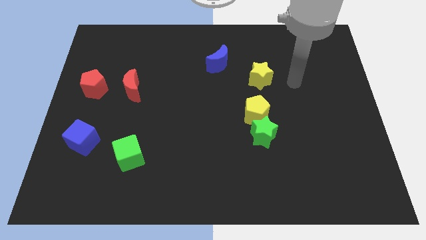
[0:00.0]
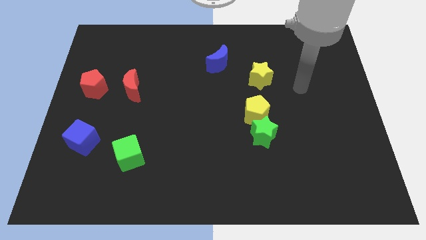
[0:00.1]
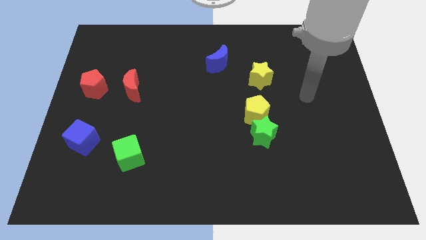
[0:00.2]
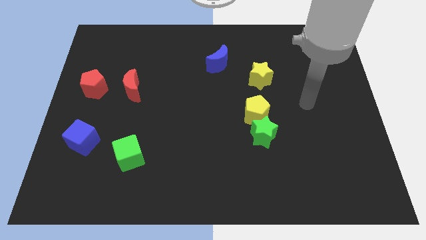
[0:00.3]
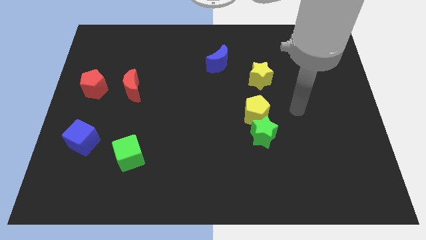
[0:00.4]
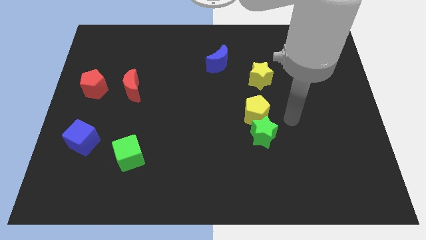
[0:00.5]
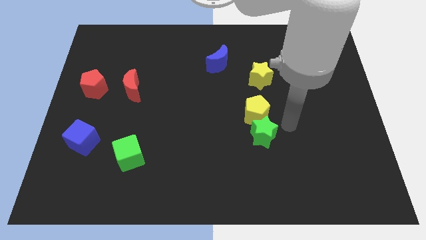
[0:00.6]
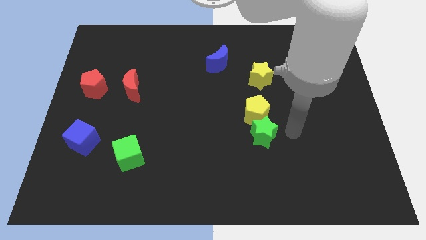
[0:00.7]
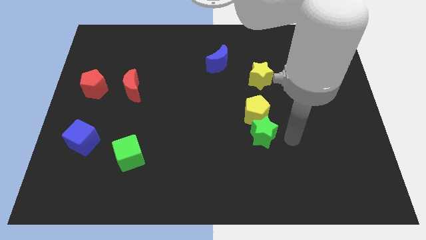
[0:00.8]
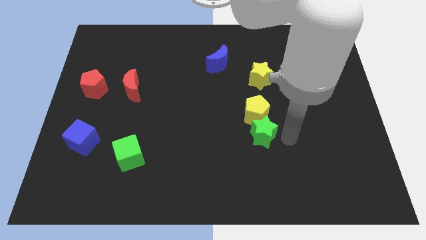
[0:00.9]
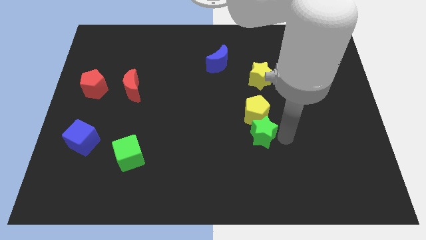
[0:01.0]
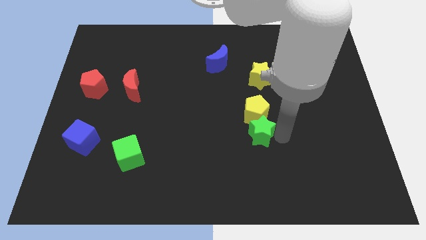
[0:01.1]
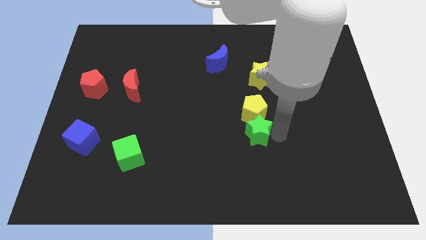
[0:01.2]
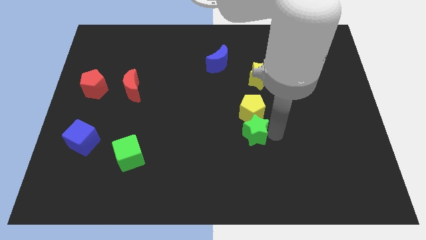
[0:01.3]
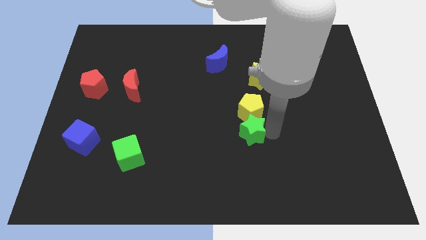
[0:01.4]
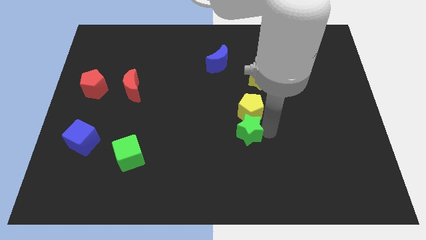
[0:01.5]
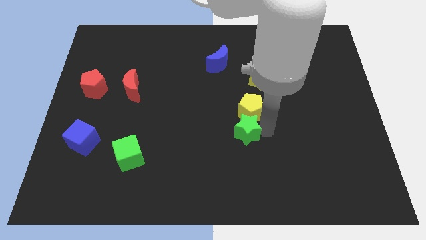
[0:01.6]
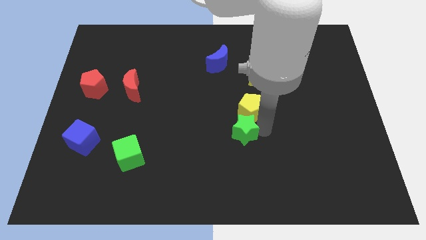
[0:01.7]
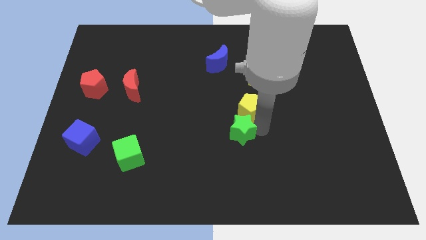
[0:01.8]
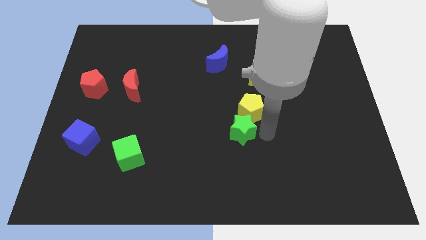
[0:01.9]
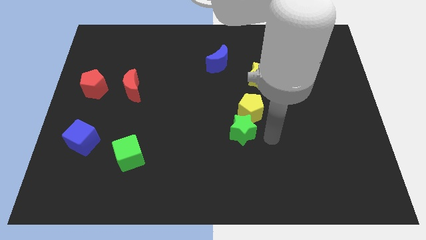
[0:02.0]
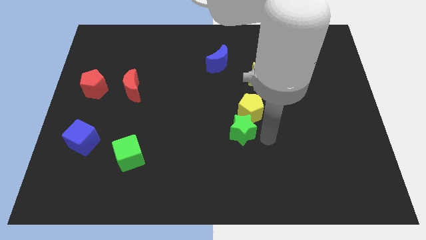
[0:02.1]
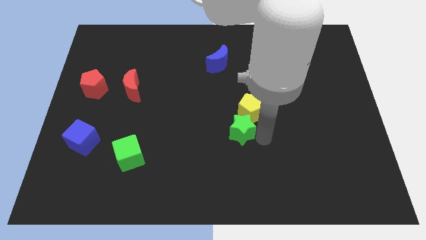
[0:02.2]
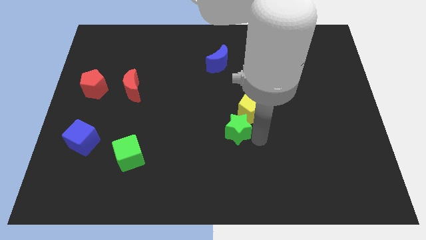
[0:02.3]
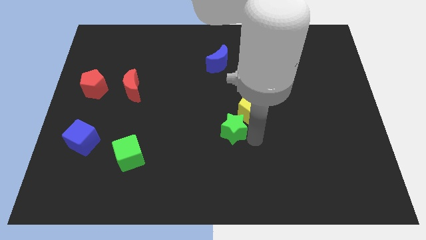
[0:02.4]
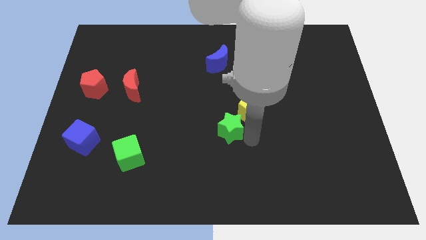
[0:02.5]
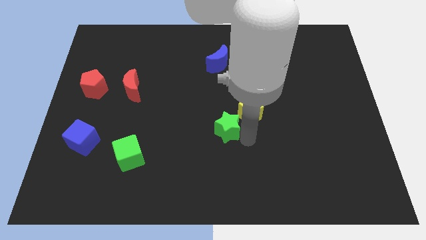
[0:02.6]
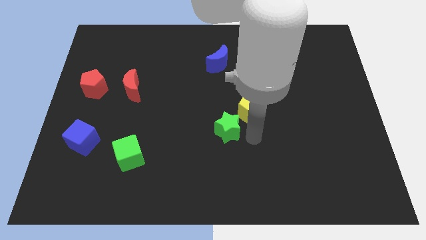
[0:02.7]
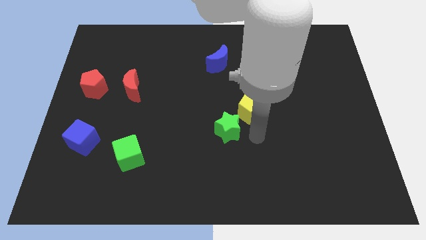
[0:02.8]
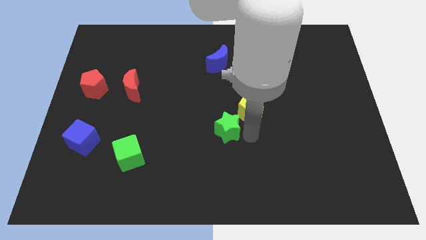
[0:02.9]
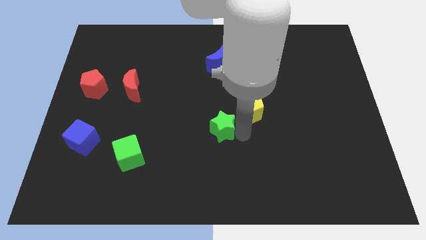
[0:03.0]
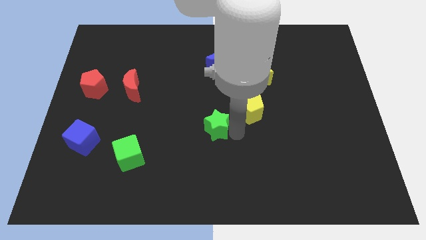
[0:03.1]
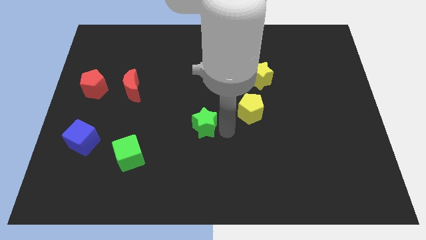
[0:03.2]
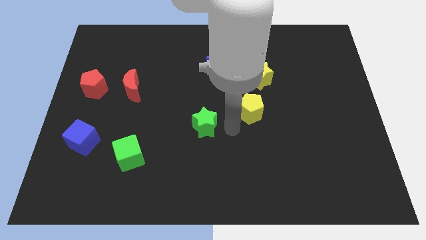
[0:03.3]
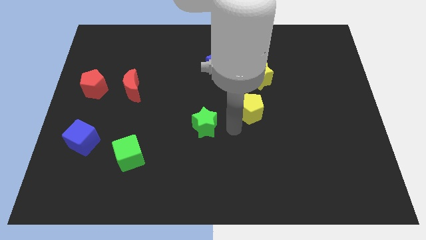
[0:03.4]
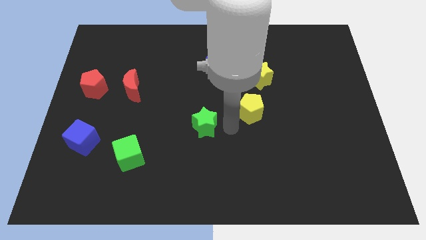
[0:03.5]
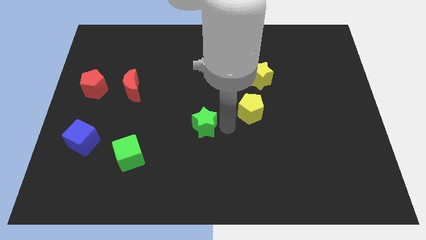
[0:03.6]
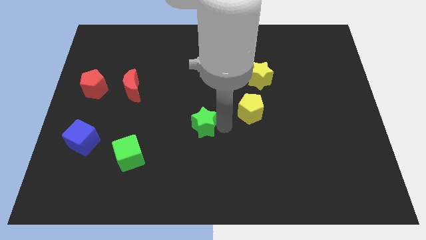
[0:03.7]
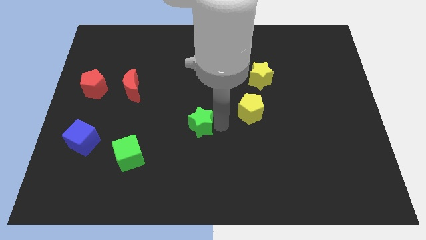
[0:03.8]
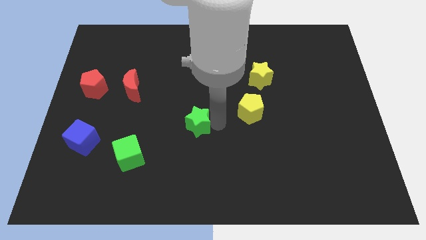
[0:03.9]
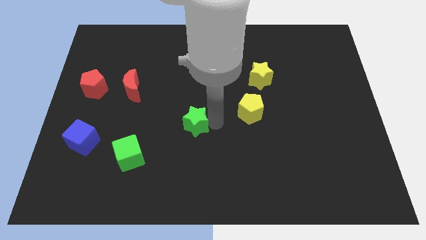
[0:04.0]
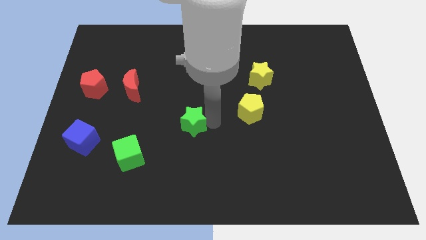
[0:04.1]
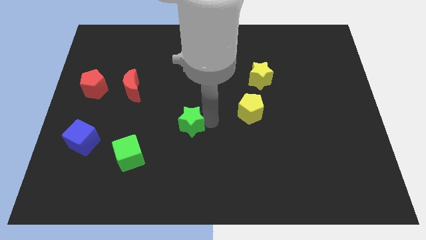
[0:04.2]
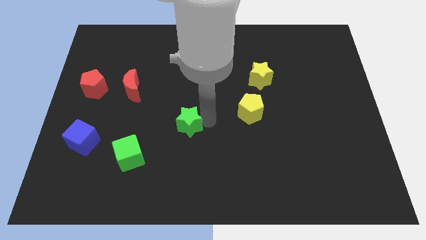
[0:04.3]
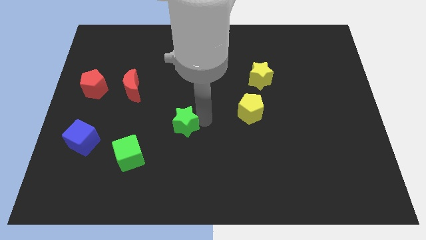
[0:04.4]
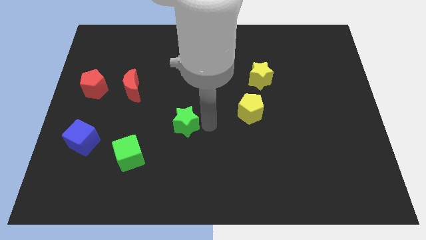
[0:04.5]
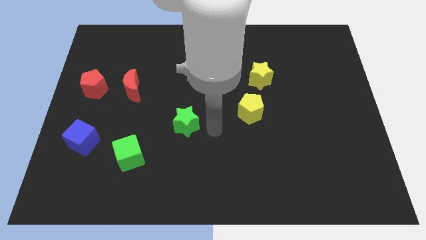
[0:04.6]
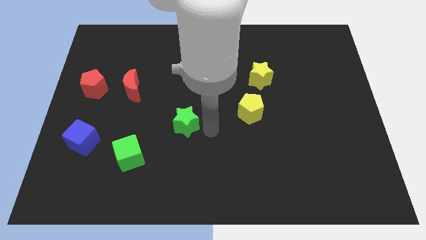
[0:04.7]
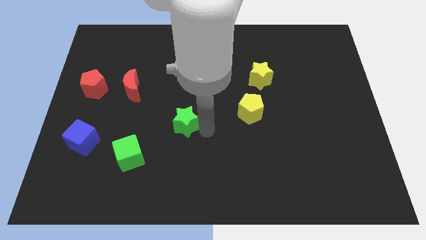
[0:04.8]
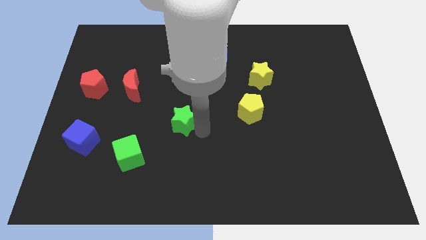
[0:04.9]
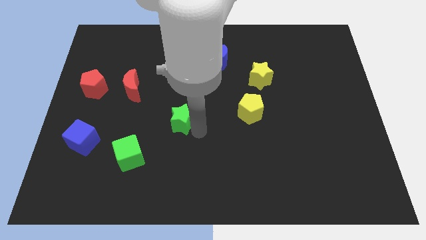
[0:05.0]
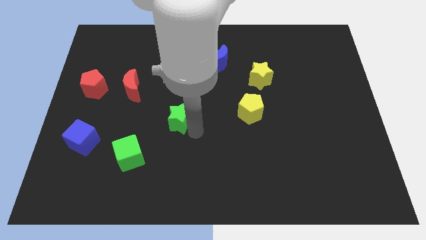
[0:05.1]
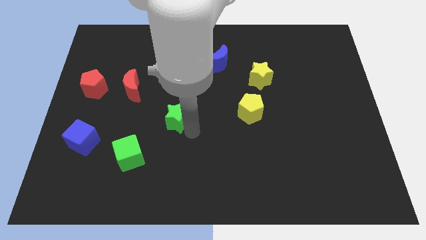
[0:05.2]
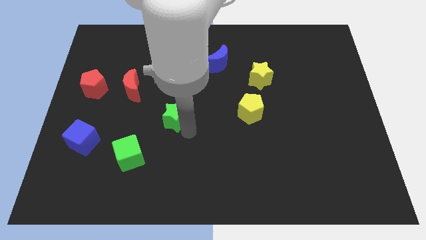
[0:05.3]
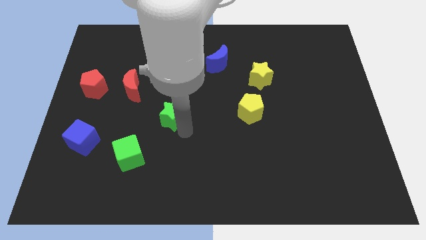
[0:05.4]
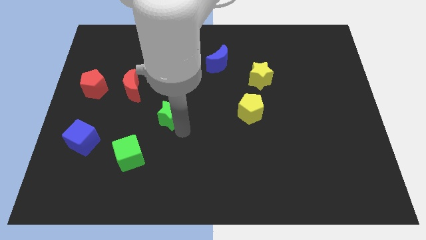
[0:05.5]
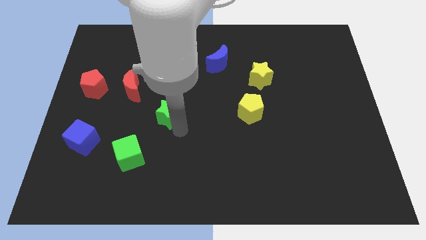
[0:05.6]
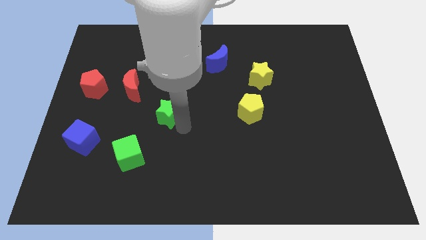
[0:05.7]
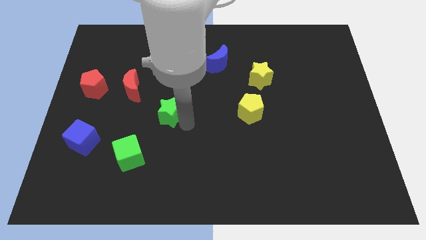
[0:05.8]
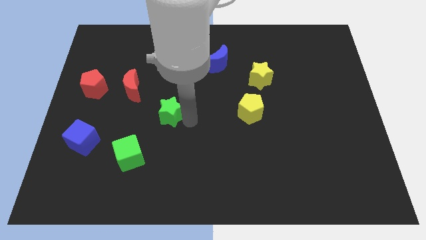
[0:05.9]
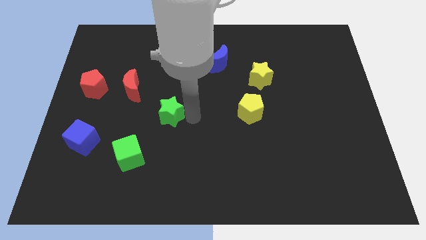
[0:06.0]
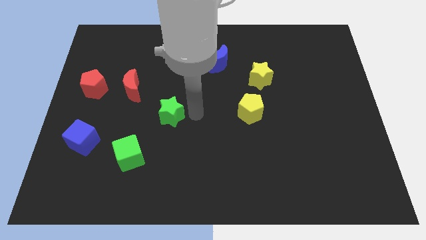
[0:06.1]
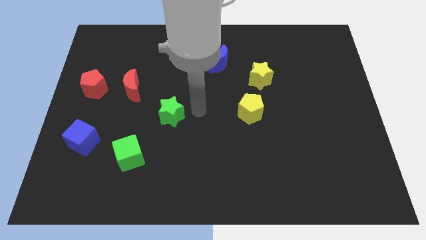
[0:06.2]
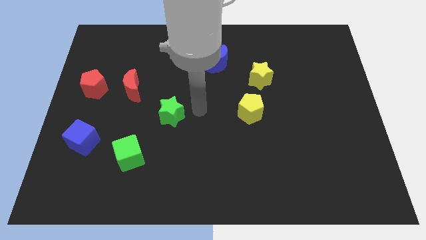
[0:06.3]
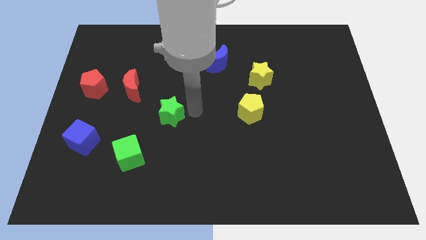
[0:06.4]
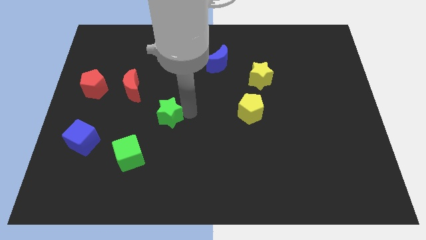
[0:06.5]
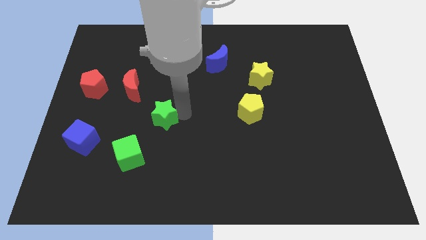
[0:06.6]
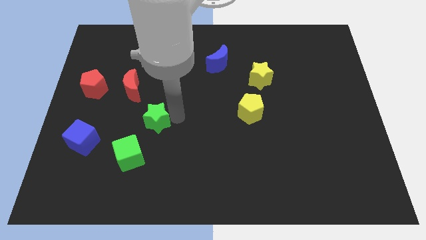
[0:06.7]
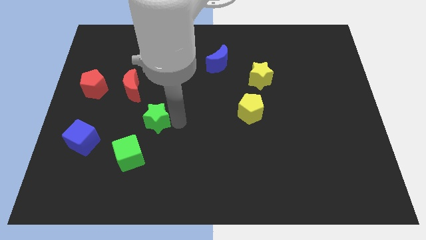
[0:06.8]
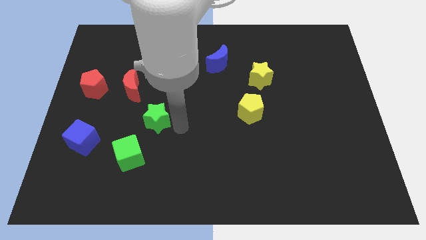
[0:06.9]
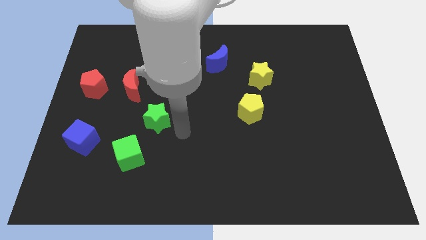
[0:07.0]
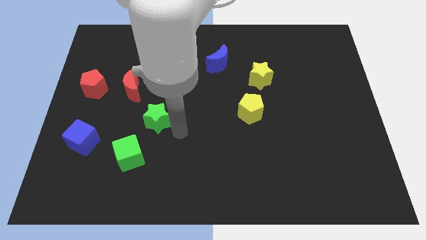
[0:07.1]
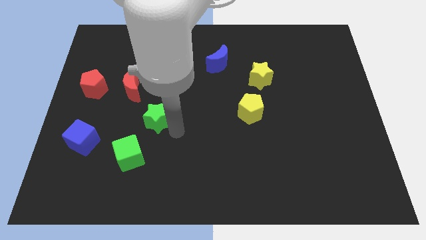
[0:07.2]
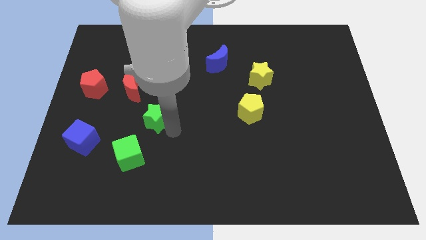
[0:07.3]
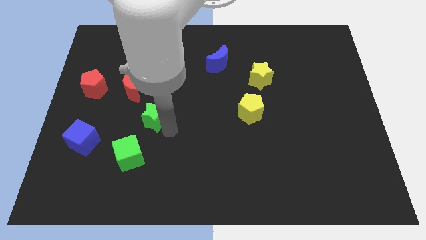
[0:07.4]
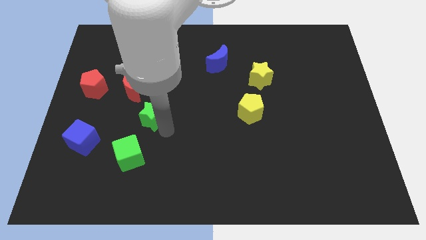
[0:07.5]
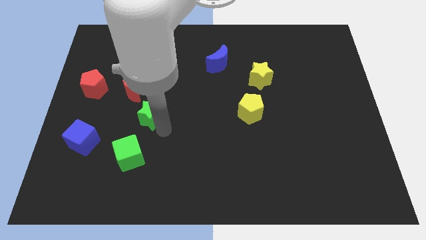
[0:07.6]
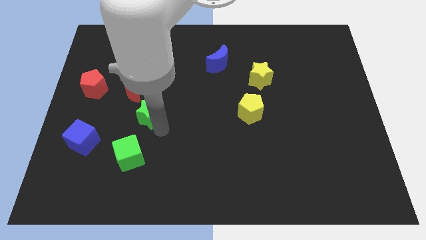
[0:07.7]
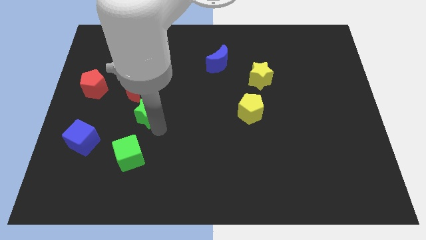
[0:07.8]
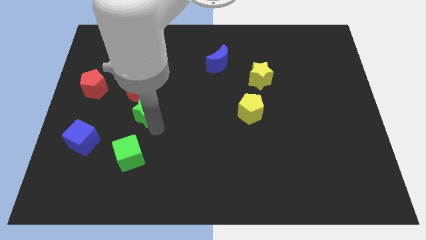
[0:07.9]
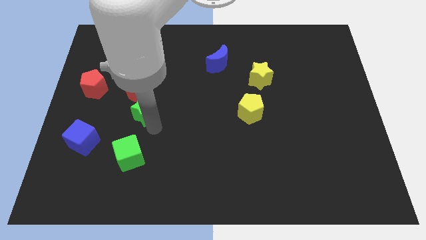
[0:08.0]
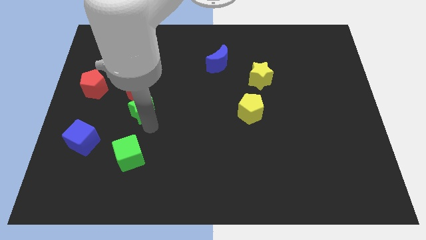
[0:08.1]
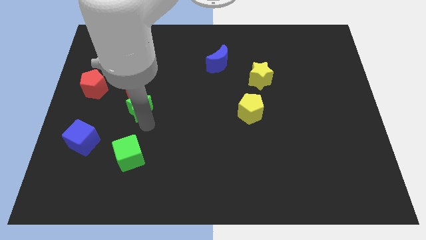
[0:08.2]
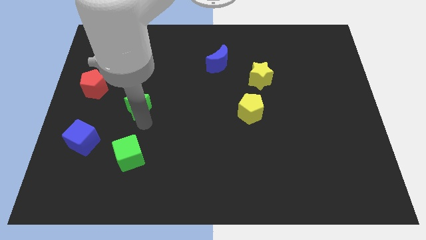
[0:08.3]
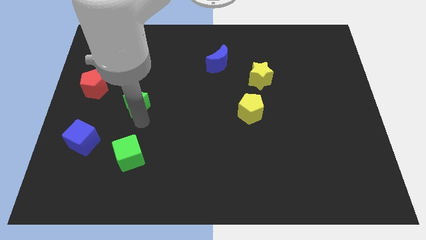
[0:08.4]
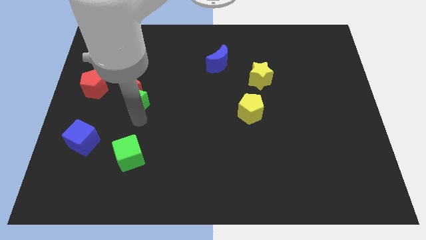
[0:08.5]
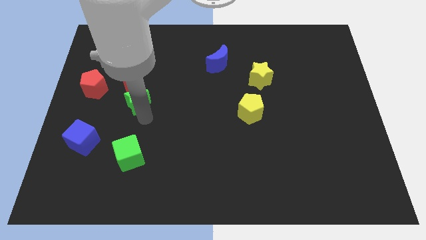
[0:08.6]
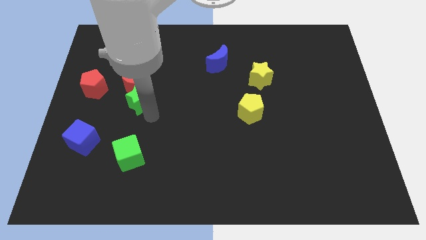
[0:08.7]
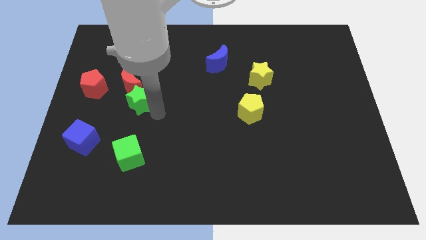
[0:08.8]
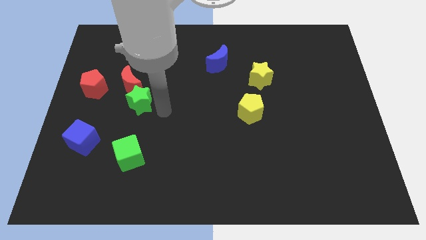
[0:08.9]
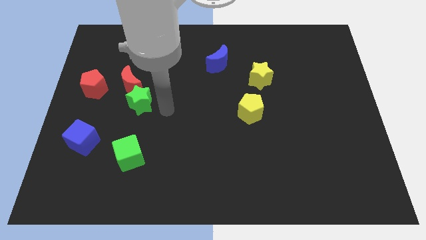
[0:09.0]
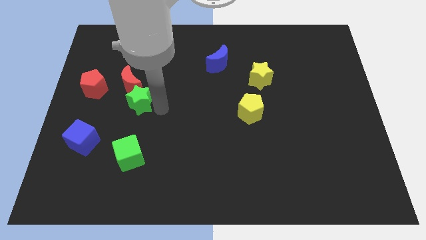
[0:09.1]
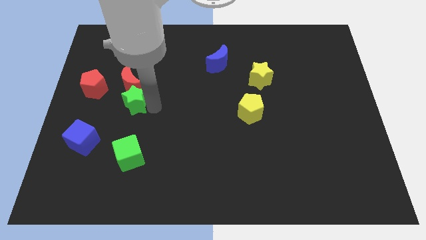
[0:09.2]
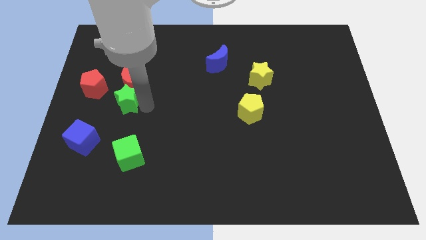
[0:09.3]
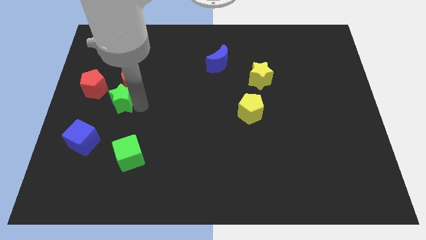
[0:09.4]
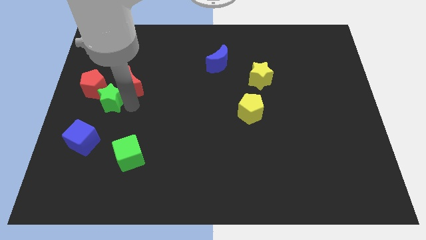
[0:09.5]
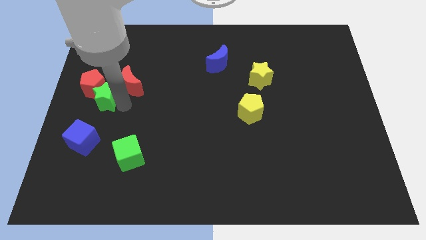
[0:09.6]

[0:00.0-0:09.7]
slide the green star to the red pentagon
